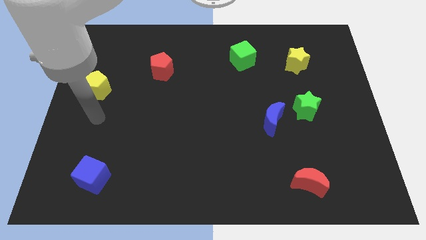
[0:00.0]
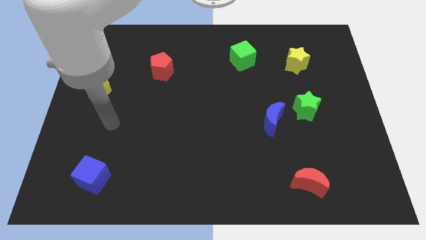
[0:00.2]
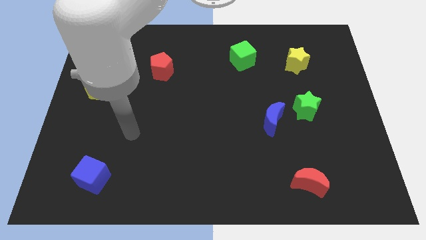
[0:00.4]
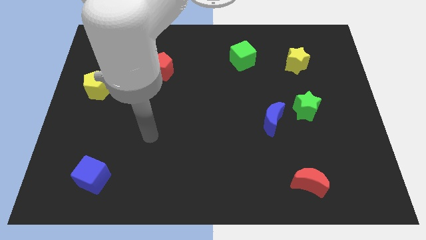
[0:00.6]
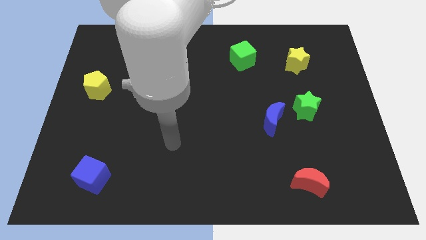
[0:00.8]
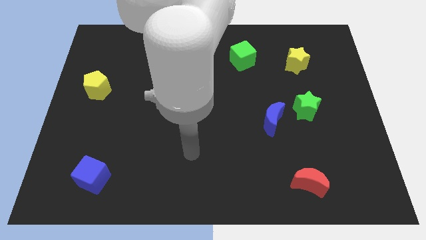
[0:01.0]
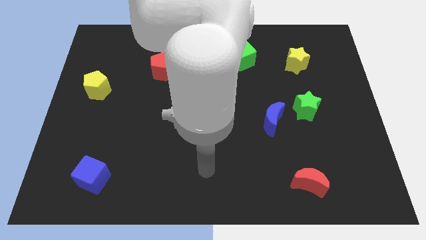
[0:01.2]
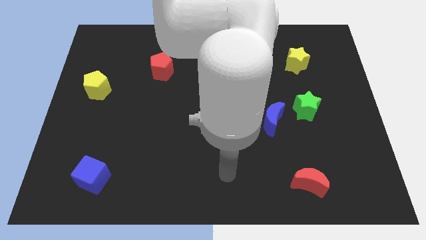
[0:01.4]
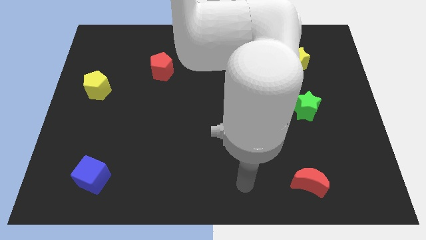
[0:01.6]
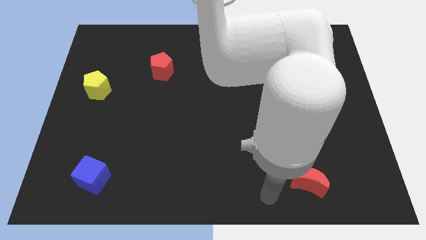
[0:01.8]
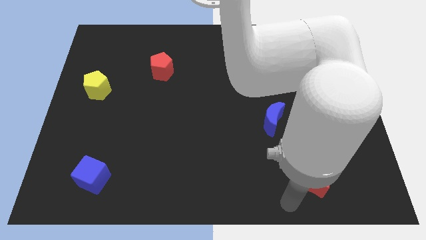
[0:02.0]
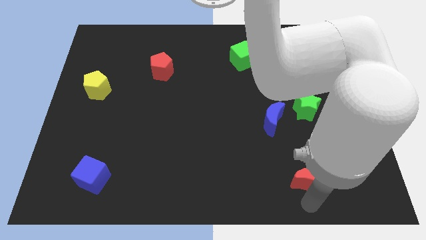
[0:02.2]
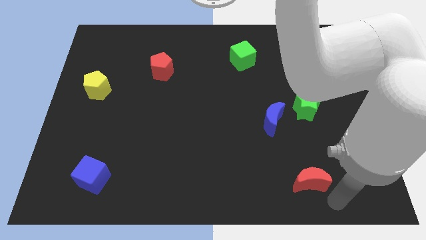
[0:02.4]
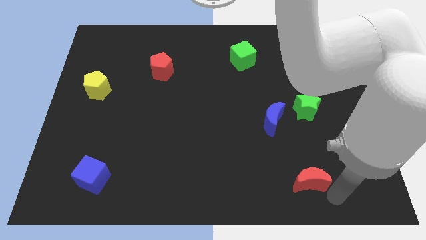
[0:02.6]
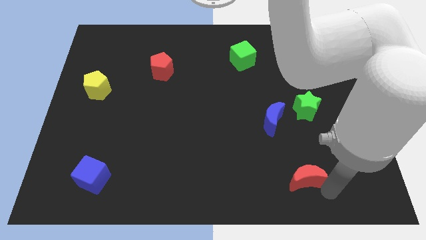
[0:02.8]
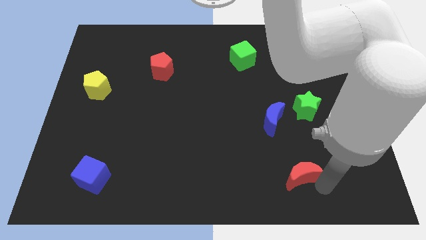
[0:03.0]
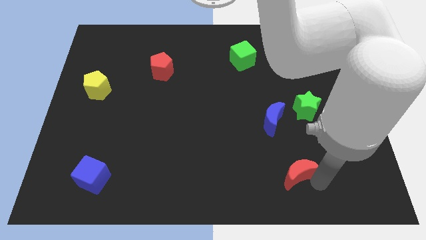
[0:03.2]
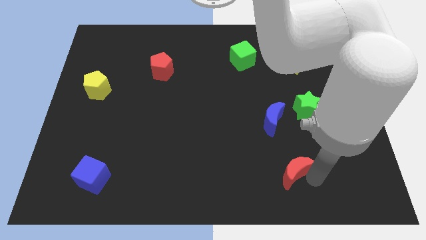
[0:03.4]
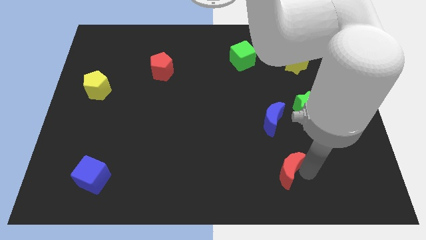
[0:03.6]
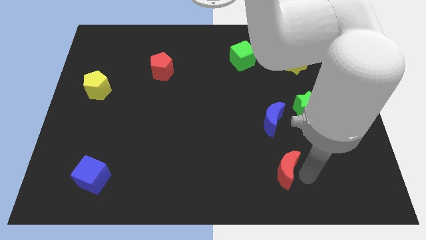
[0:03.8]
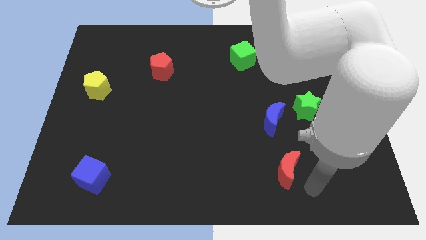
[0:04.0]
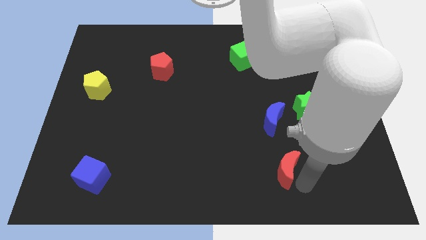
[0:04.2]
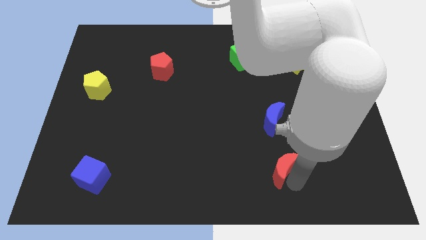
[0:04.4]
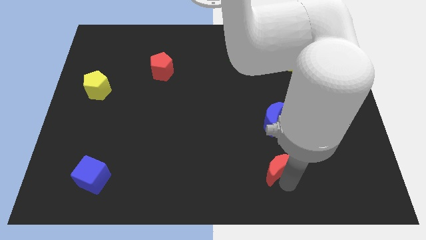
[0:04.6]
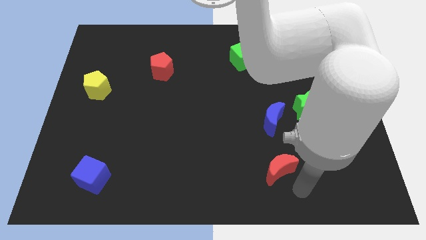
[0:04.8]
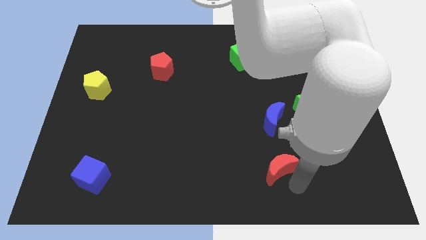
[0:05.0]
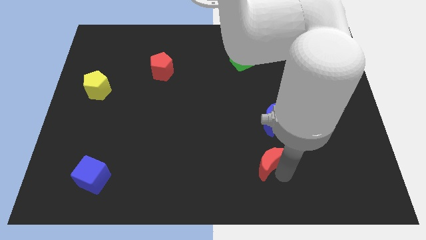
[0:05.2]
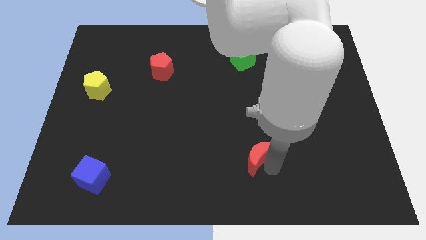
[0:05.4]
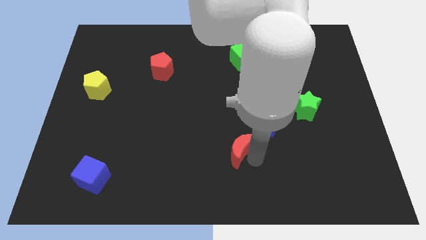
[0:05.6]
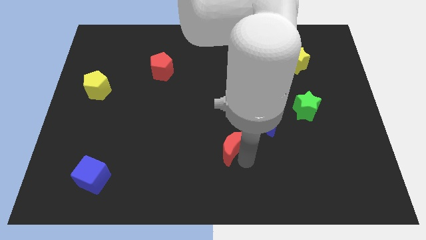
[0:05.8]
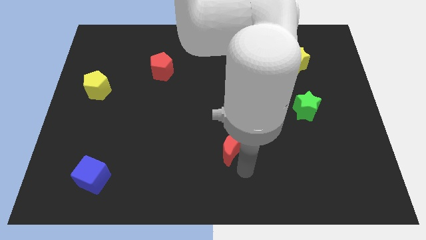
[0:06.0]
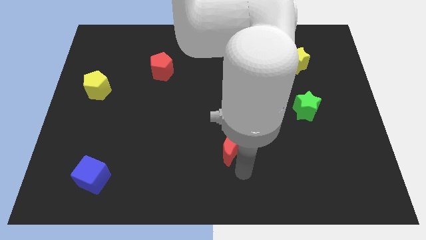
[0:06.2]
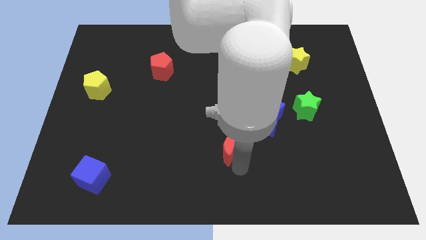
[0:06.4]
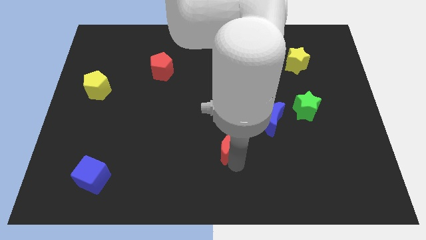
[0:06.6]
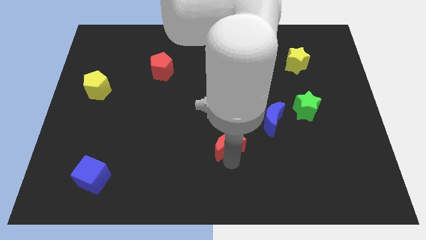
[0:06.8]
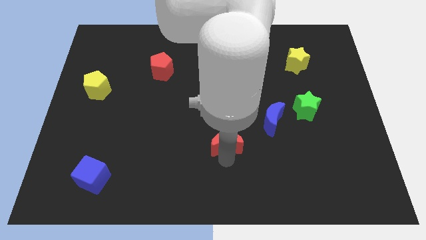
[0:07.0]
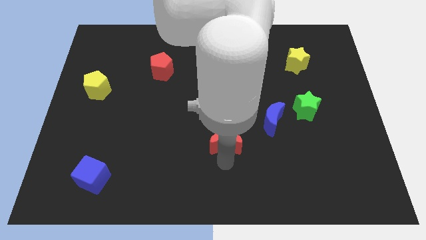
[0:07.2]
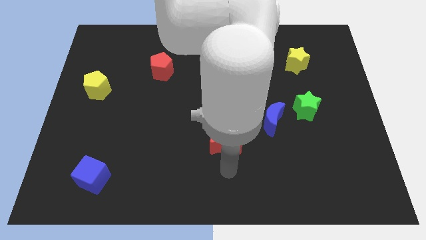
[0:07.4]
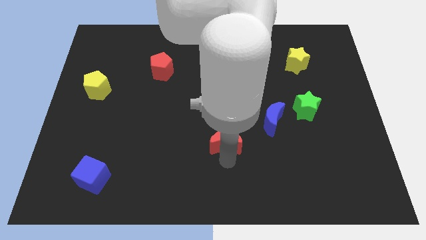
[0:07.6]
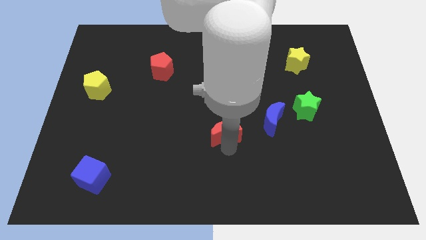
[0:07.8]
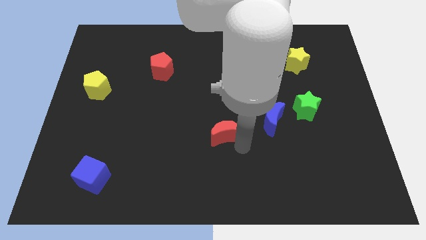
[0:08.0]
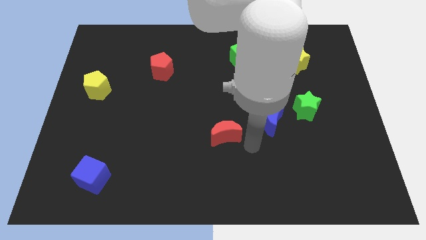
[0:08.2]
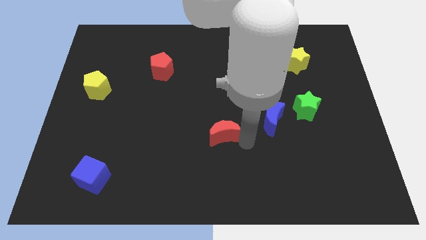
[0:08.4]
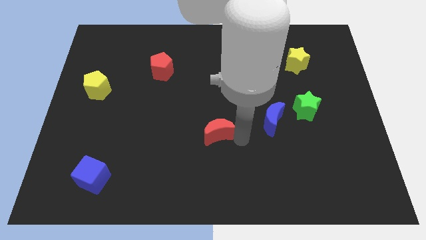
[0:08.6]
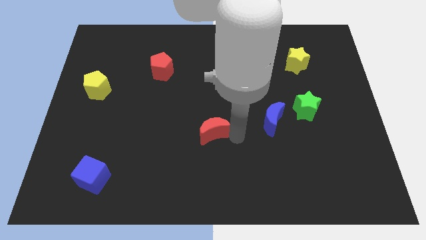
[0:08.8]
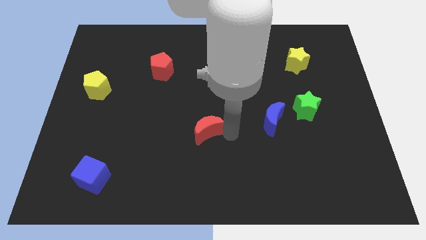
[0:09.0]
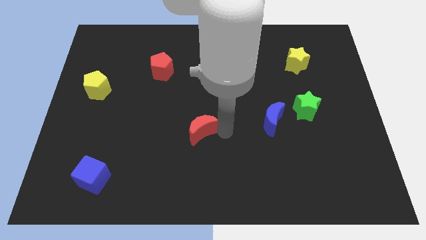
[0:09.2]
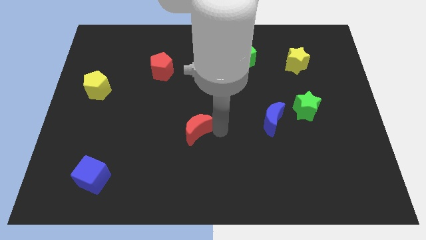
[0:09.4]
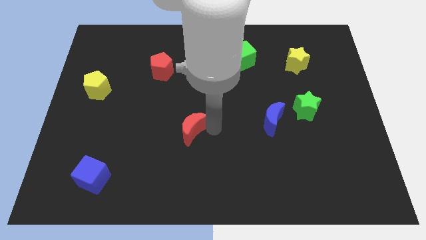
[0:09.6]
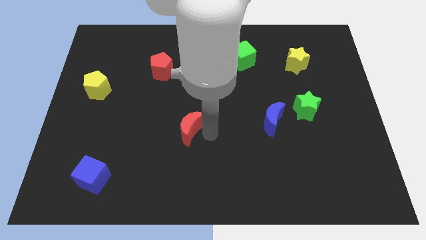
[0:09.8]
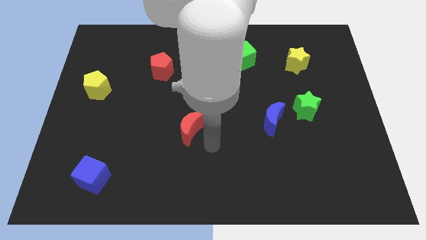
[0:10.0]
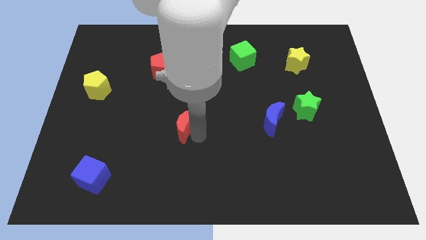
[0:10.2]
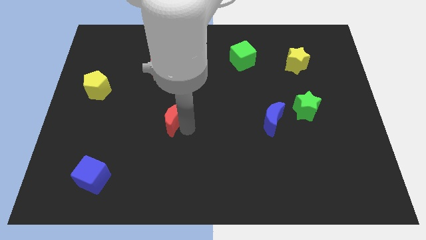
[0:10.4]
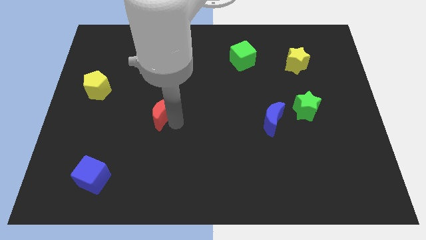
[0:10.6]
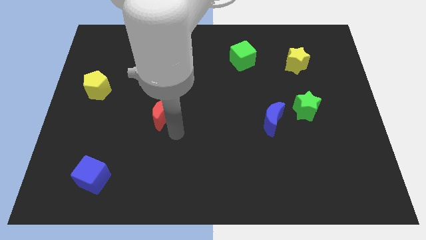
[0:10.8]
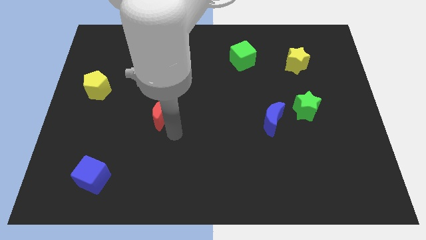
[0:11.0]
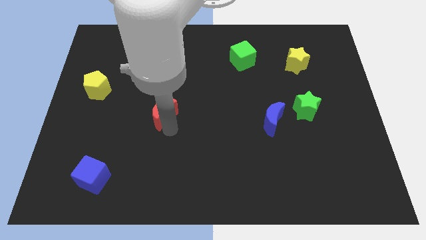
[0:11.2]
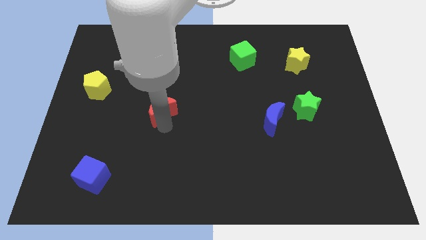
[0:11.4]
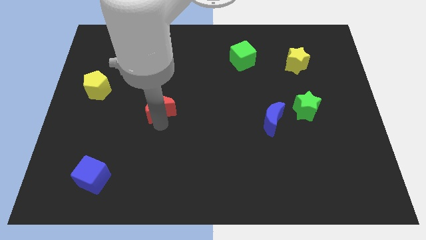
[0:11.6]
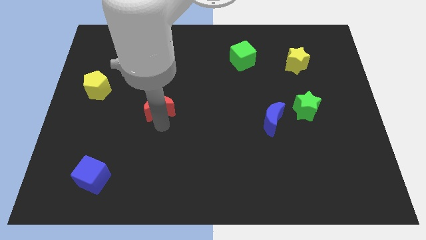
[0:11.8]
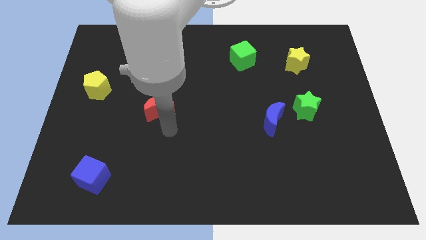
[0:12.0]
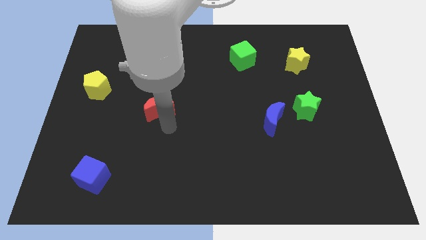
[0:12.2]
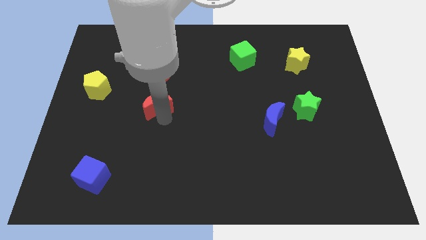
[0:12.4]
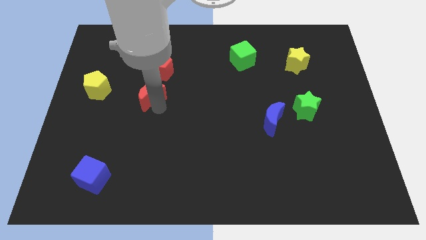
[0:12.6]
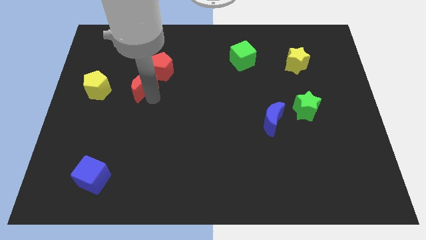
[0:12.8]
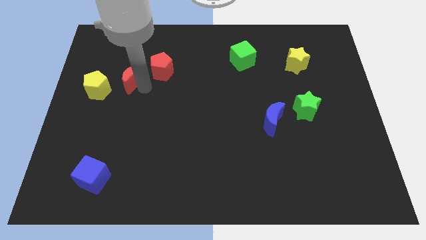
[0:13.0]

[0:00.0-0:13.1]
slide the red moon diagonally up and to the right of the yellow pentagon

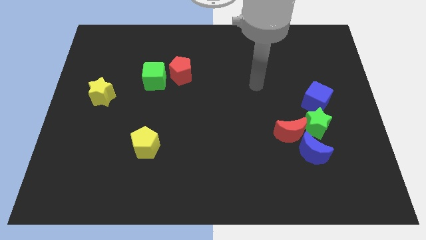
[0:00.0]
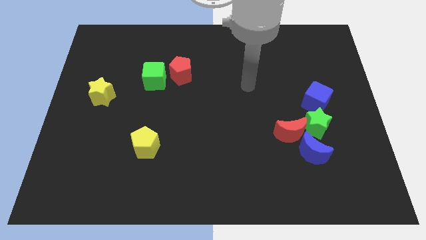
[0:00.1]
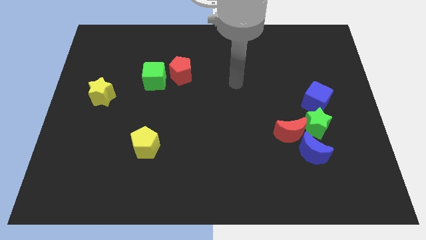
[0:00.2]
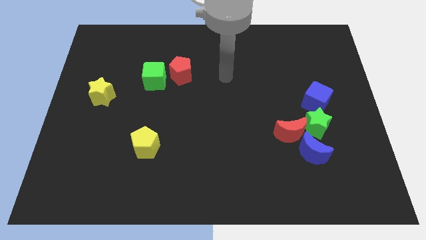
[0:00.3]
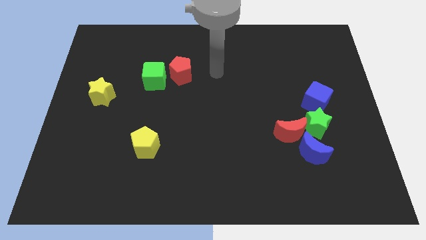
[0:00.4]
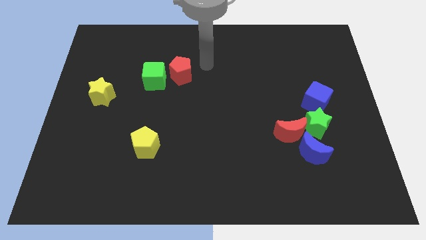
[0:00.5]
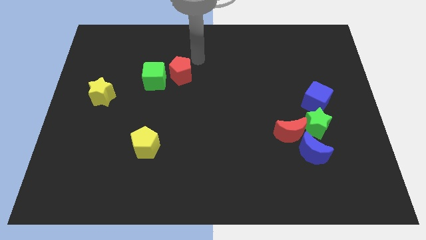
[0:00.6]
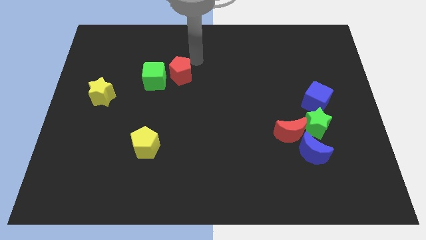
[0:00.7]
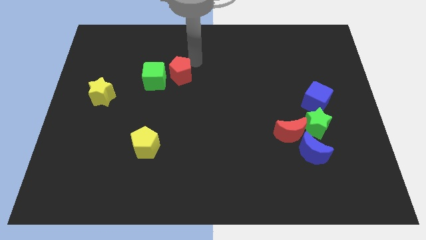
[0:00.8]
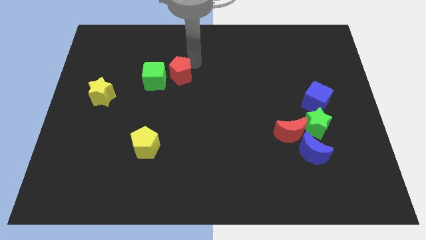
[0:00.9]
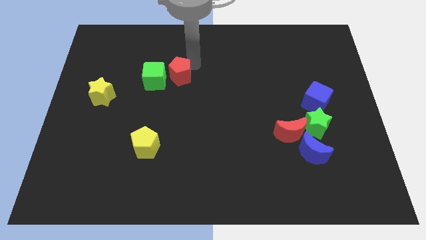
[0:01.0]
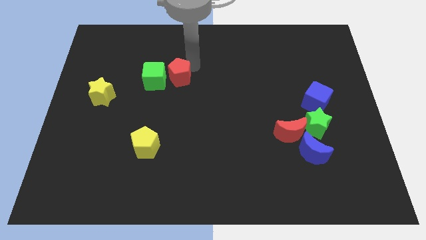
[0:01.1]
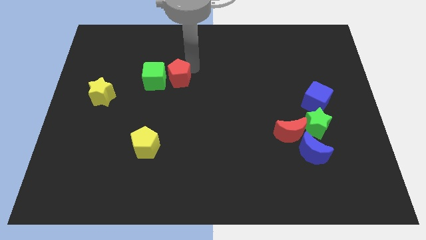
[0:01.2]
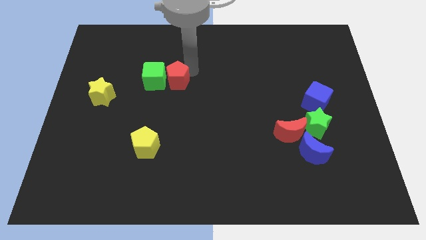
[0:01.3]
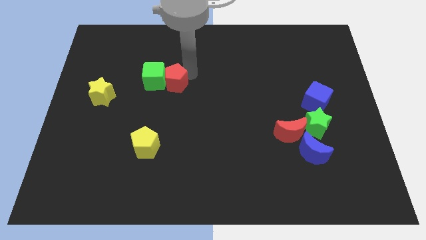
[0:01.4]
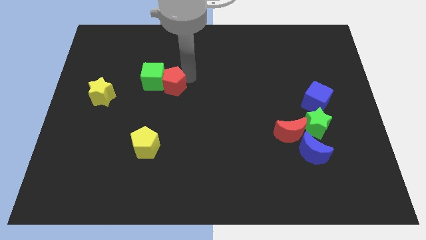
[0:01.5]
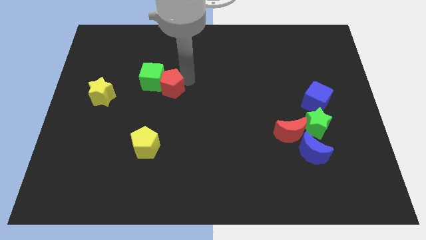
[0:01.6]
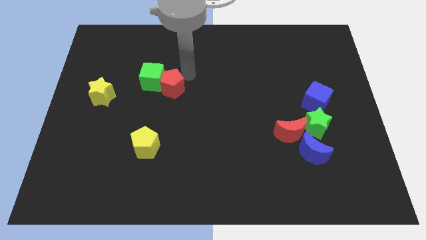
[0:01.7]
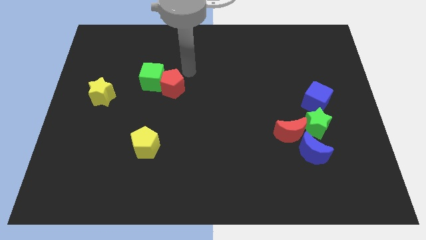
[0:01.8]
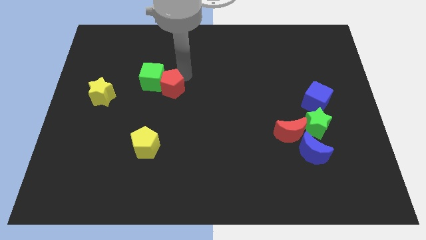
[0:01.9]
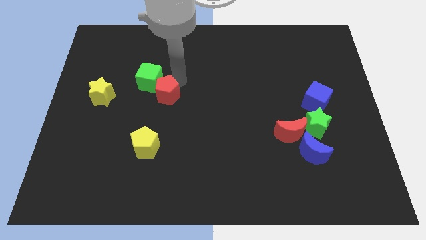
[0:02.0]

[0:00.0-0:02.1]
move the red pentagon to the bottom of the green cube
